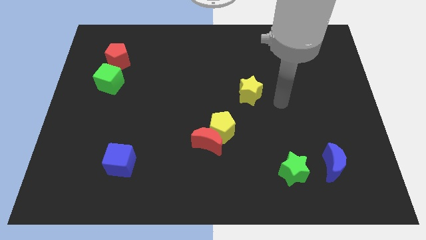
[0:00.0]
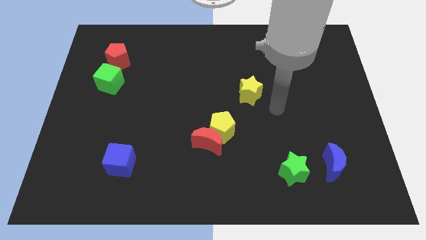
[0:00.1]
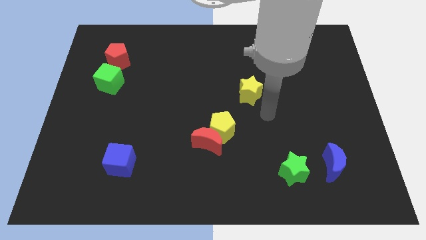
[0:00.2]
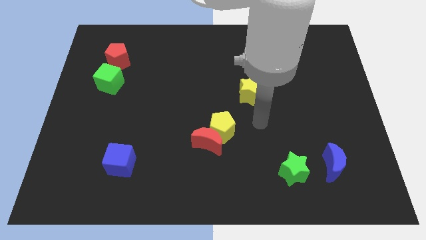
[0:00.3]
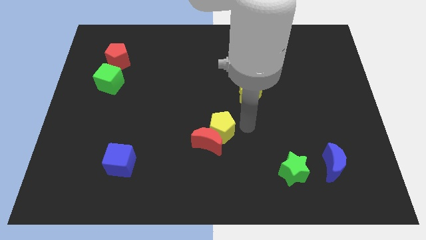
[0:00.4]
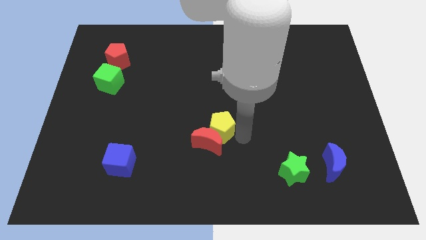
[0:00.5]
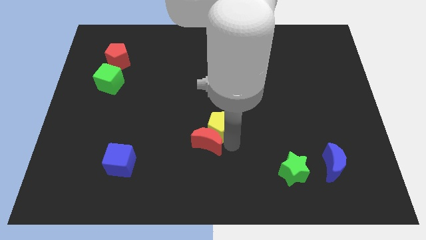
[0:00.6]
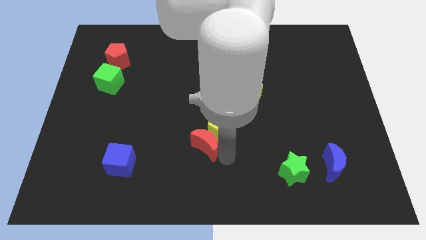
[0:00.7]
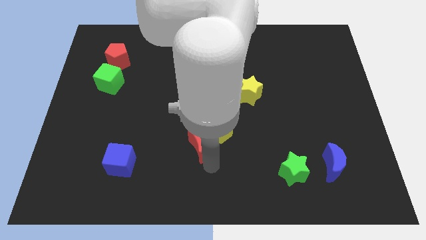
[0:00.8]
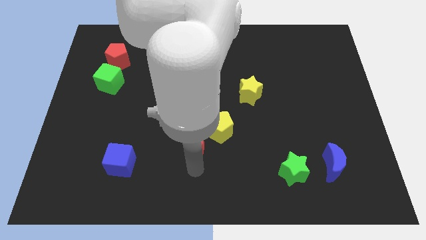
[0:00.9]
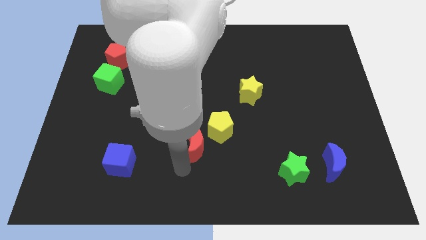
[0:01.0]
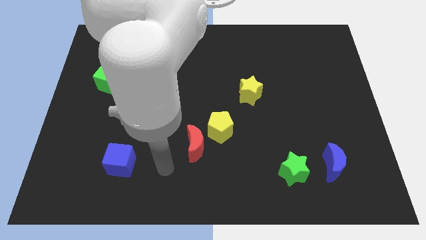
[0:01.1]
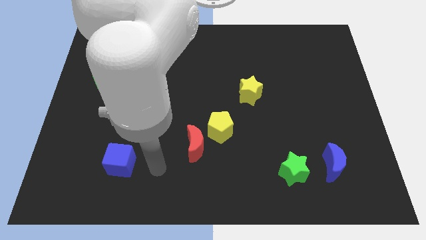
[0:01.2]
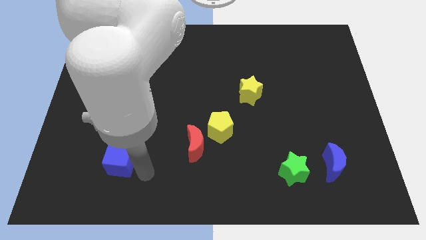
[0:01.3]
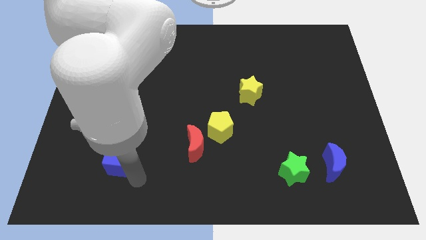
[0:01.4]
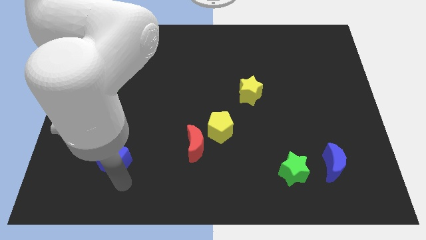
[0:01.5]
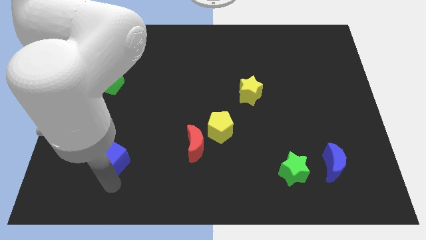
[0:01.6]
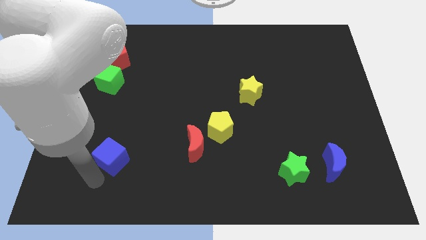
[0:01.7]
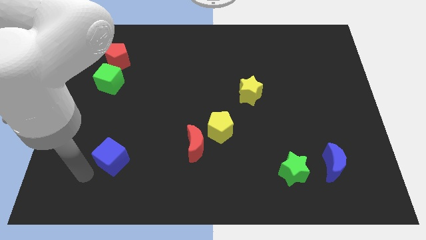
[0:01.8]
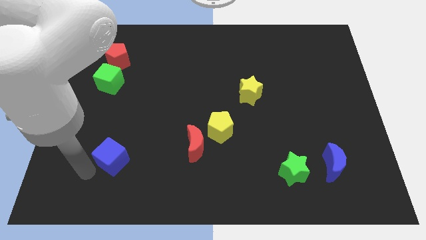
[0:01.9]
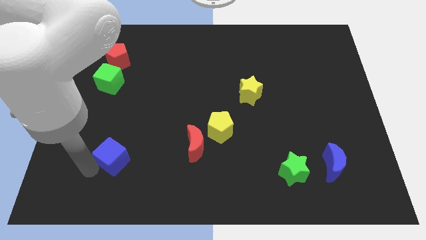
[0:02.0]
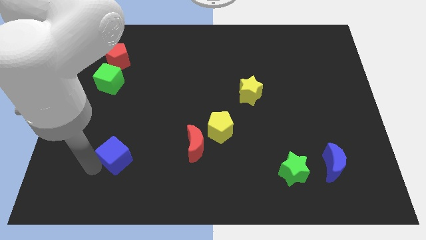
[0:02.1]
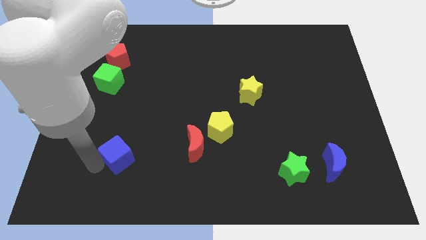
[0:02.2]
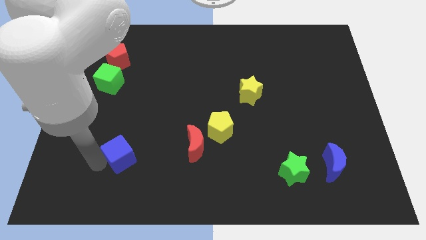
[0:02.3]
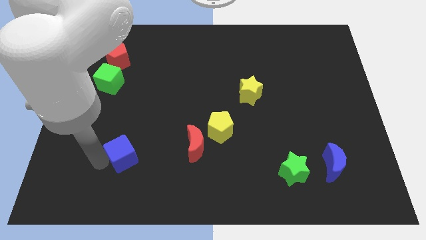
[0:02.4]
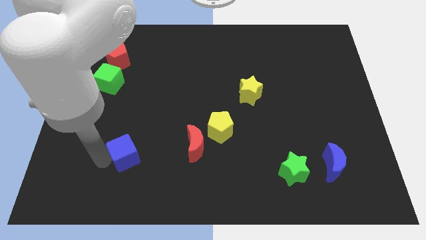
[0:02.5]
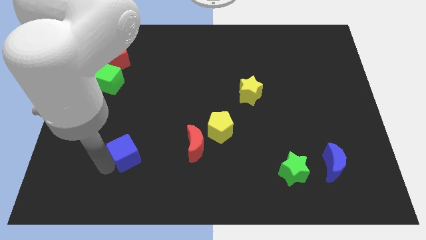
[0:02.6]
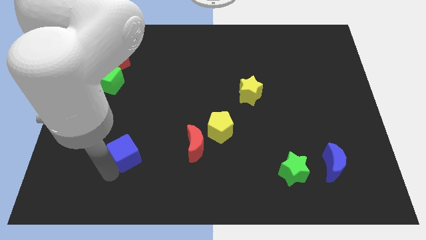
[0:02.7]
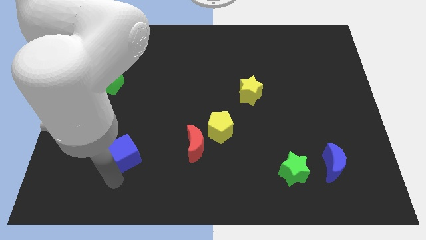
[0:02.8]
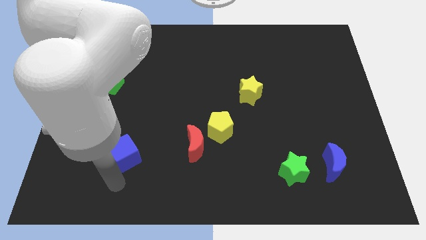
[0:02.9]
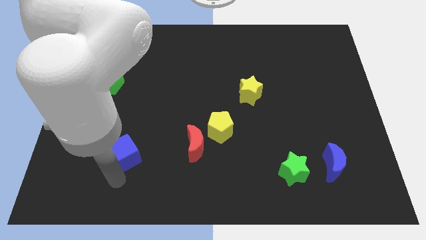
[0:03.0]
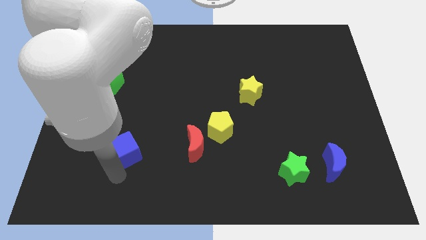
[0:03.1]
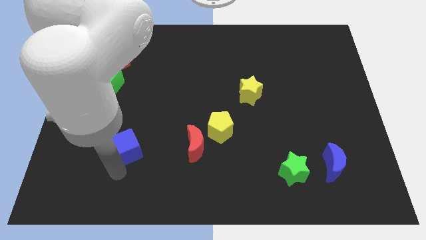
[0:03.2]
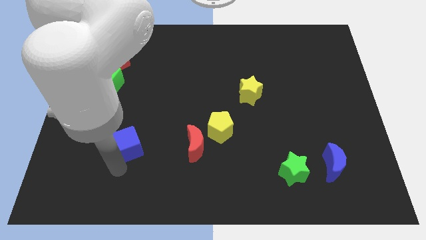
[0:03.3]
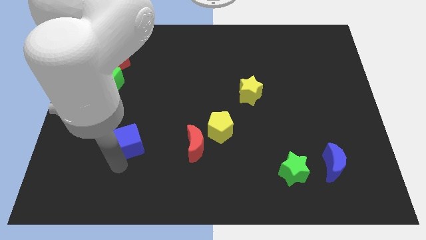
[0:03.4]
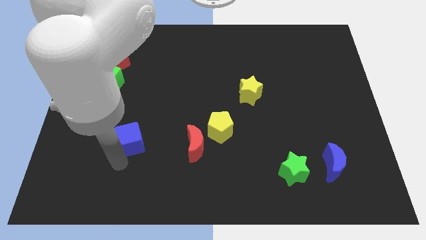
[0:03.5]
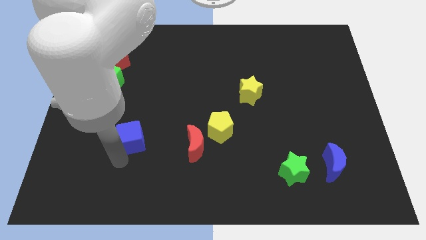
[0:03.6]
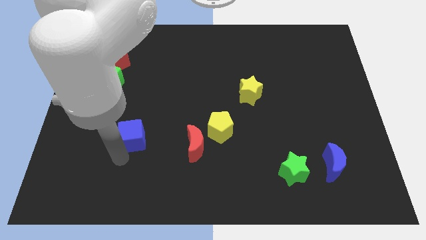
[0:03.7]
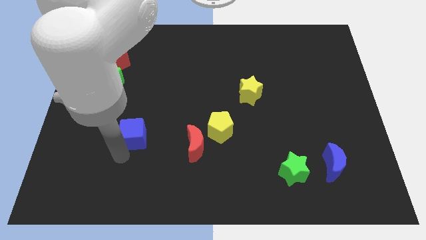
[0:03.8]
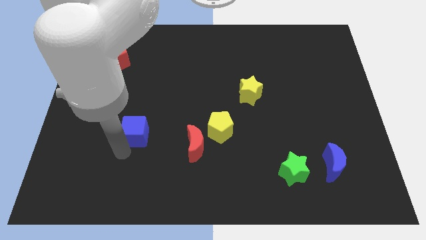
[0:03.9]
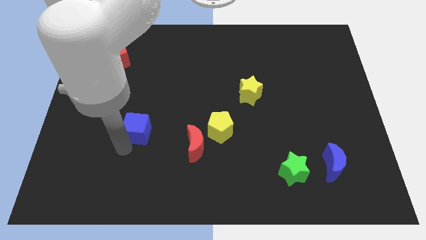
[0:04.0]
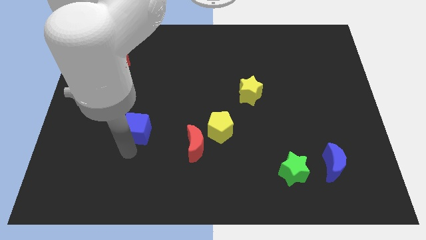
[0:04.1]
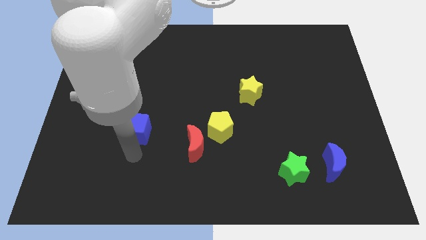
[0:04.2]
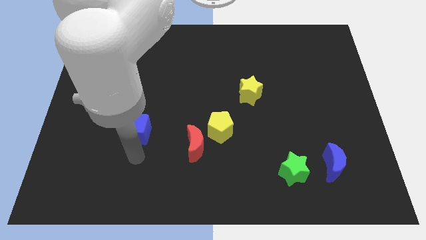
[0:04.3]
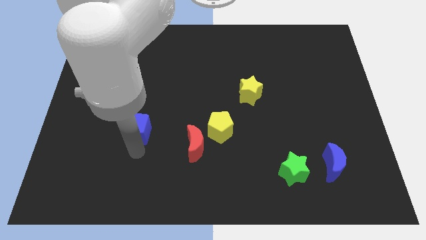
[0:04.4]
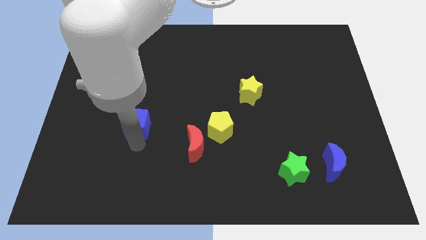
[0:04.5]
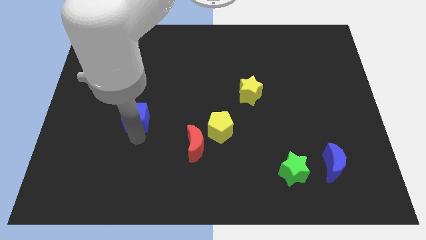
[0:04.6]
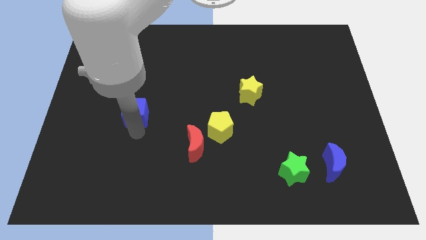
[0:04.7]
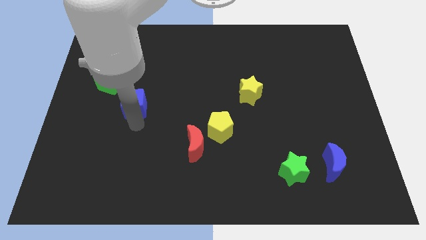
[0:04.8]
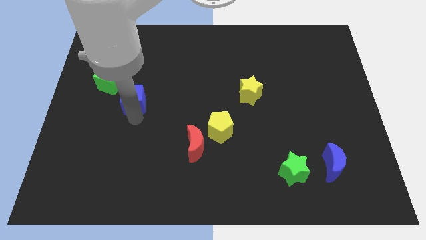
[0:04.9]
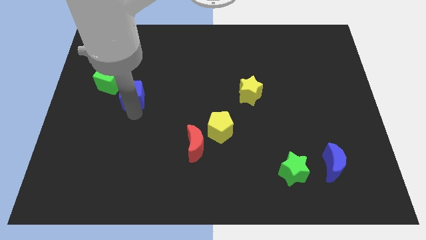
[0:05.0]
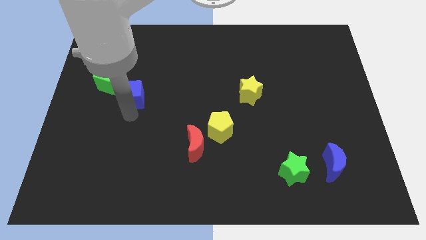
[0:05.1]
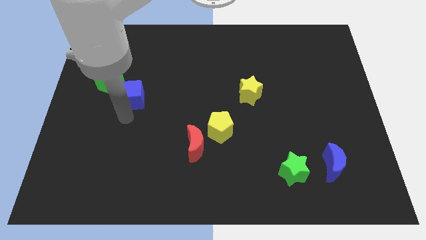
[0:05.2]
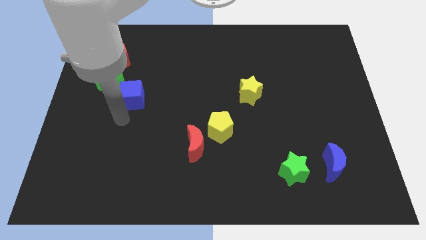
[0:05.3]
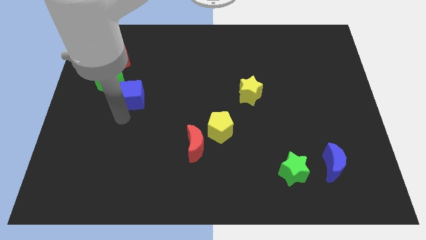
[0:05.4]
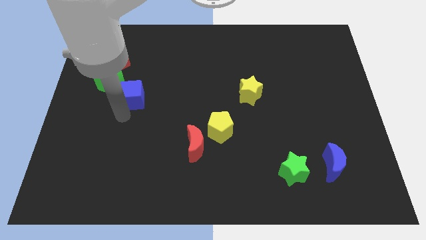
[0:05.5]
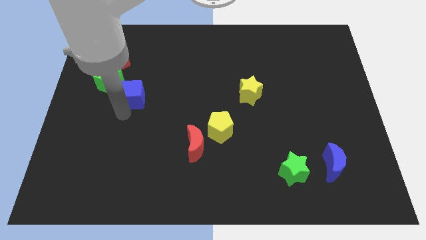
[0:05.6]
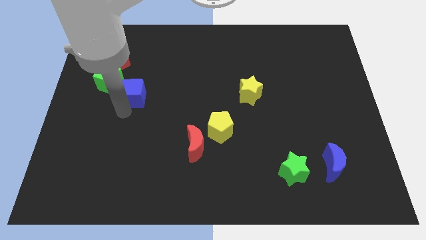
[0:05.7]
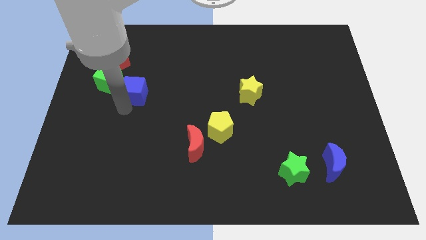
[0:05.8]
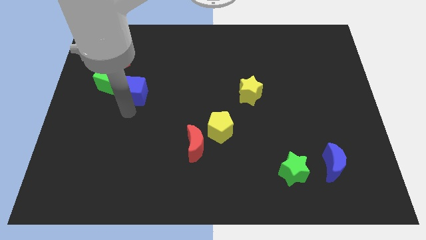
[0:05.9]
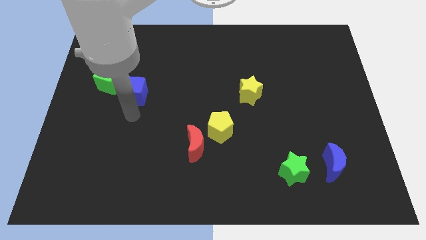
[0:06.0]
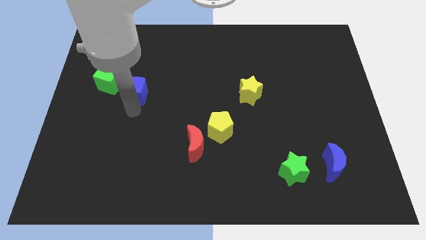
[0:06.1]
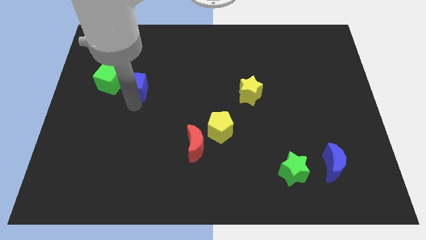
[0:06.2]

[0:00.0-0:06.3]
move the blue cube upwards

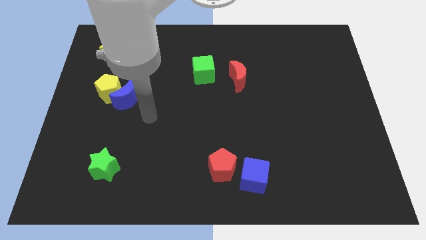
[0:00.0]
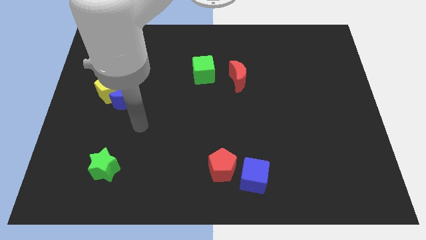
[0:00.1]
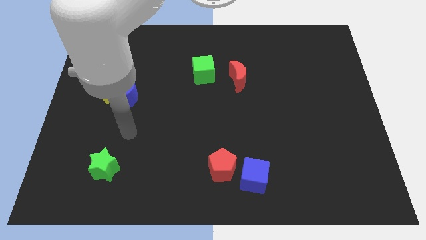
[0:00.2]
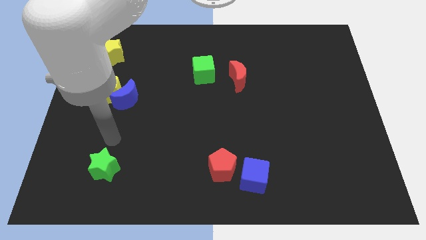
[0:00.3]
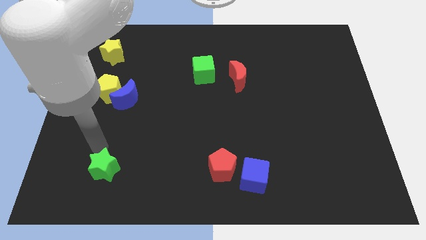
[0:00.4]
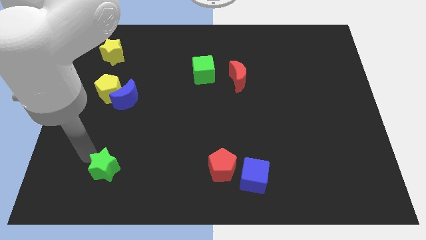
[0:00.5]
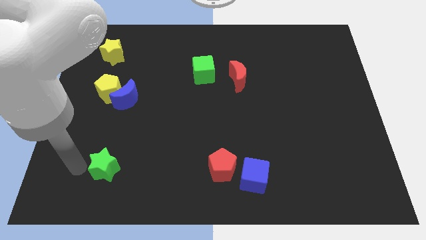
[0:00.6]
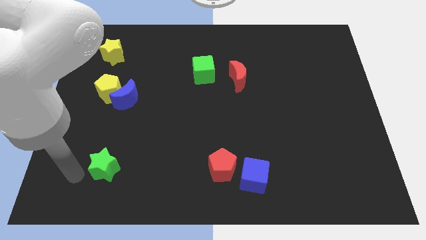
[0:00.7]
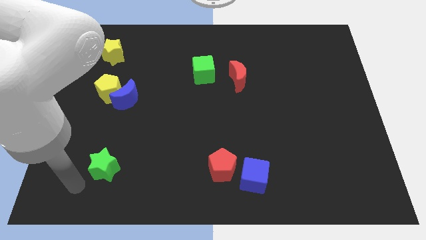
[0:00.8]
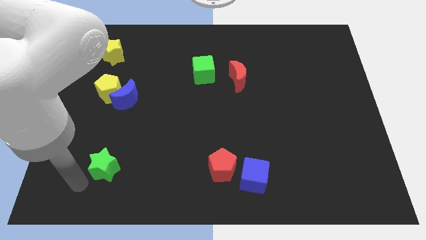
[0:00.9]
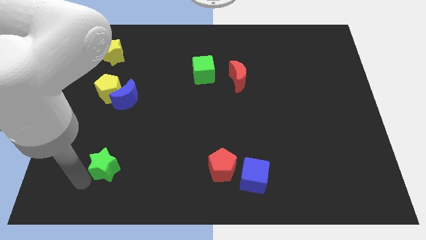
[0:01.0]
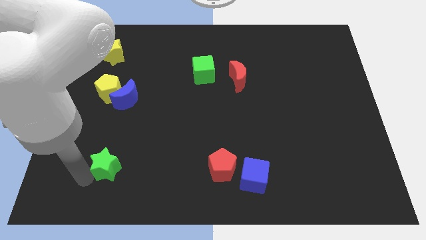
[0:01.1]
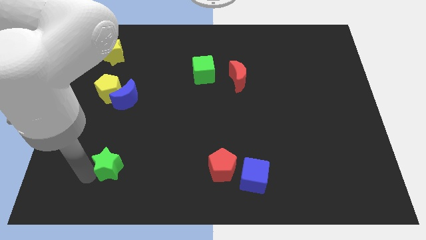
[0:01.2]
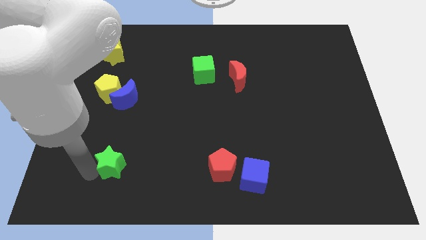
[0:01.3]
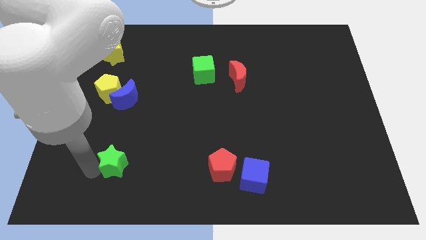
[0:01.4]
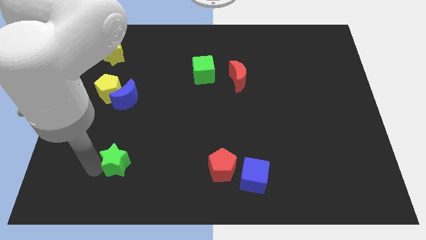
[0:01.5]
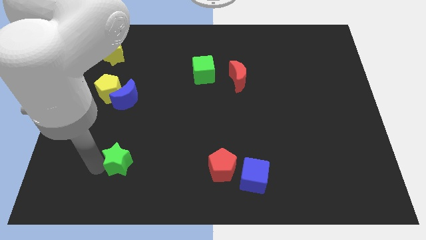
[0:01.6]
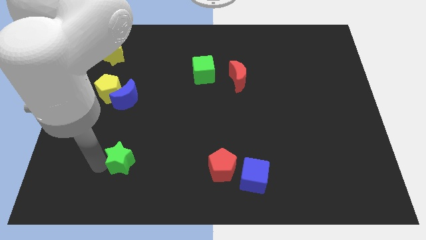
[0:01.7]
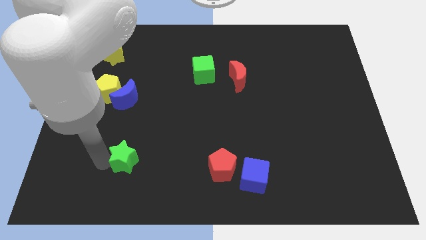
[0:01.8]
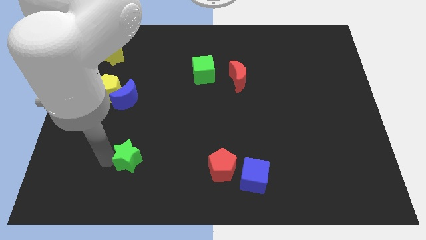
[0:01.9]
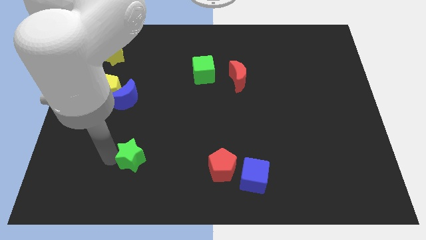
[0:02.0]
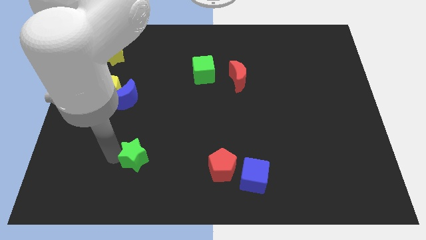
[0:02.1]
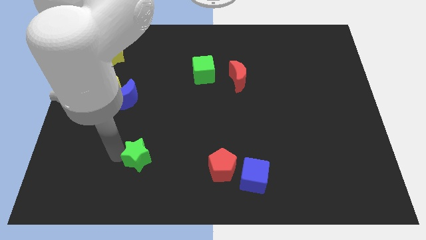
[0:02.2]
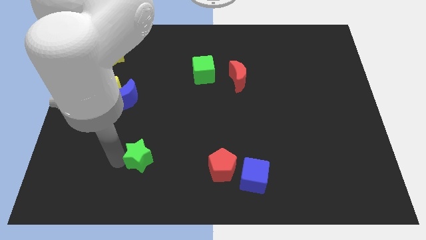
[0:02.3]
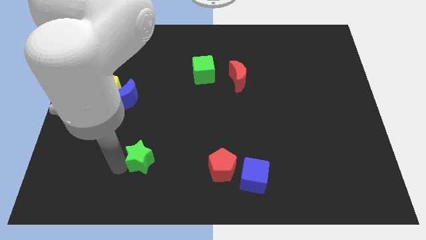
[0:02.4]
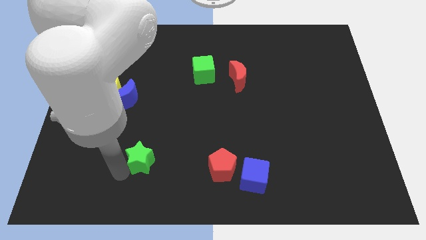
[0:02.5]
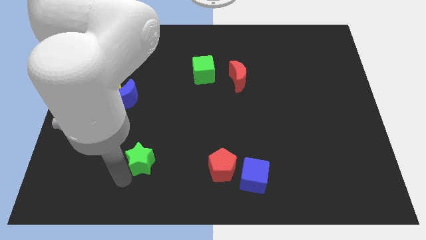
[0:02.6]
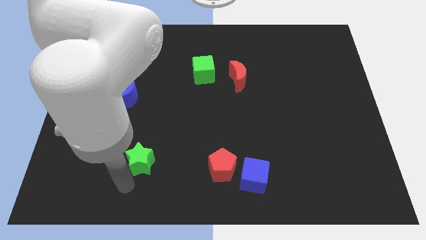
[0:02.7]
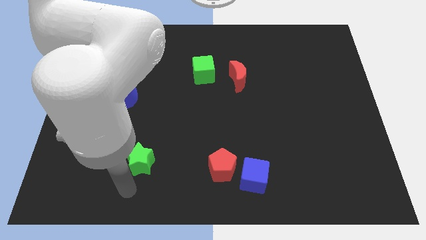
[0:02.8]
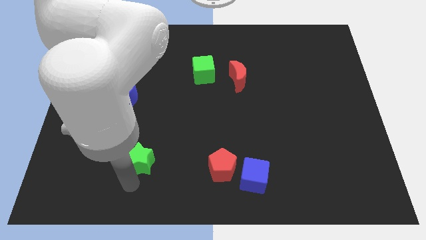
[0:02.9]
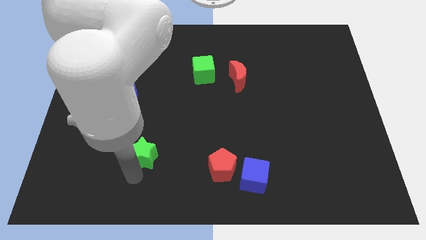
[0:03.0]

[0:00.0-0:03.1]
move the green star slightly up and then to the right
